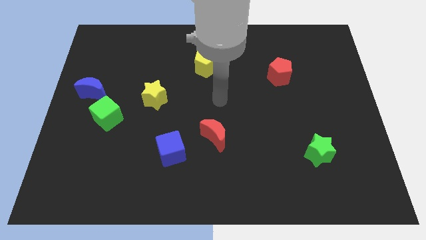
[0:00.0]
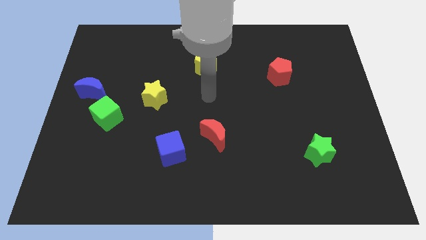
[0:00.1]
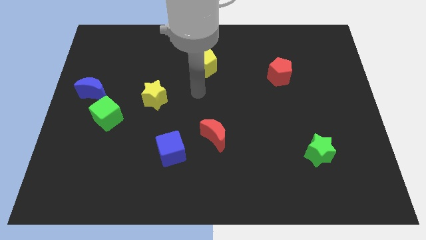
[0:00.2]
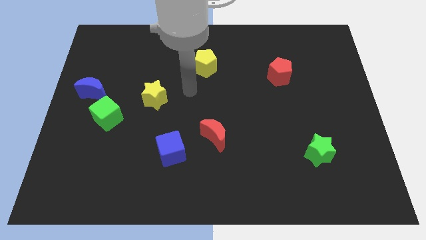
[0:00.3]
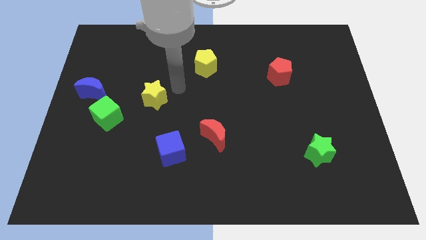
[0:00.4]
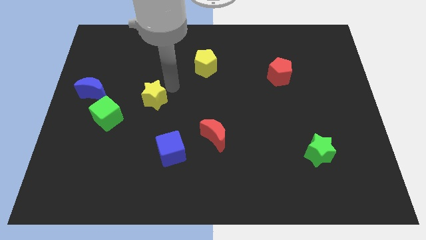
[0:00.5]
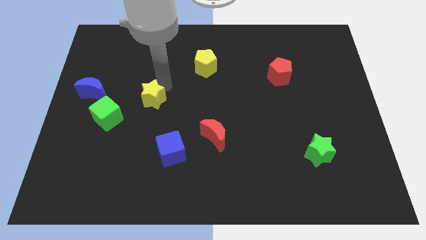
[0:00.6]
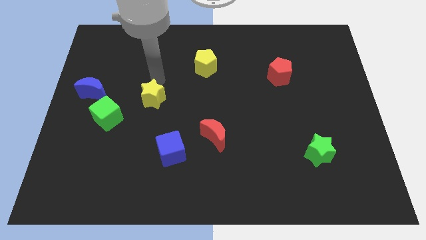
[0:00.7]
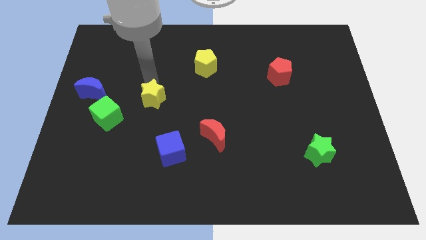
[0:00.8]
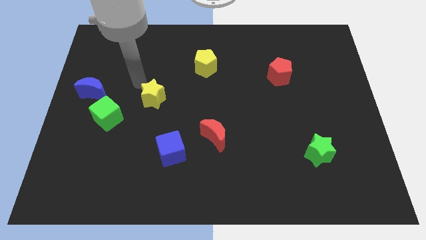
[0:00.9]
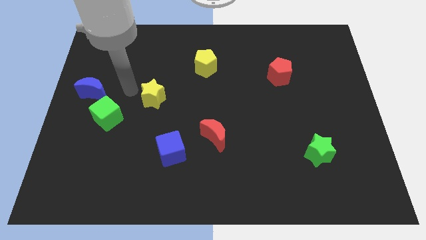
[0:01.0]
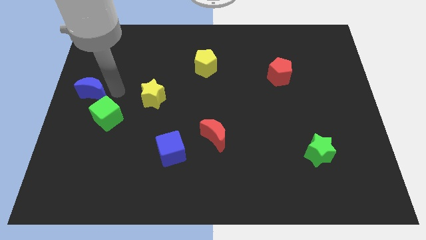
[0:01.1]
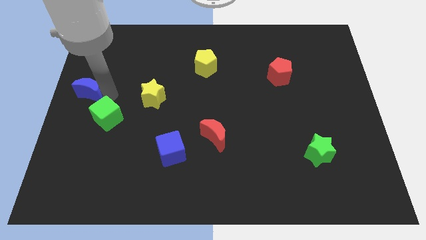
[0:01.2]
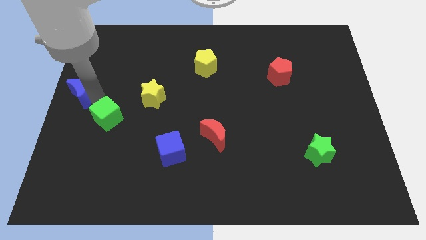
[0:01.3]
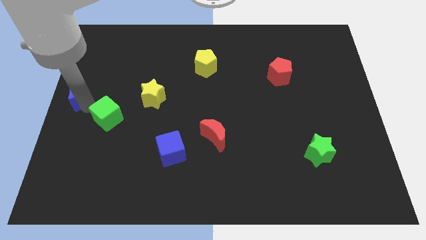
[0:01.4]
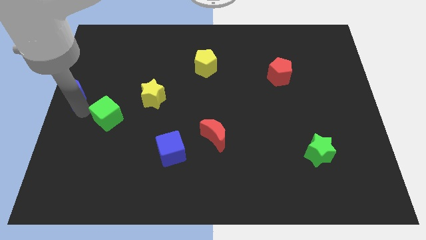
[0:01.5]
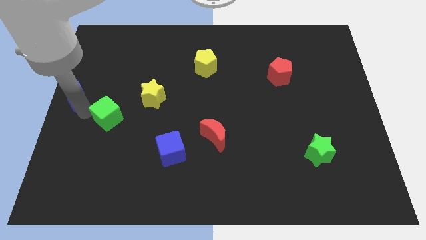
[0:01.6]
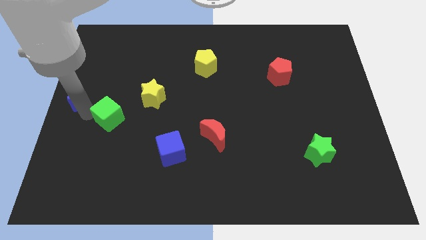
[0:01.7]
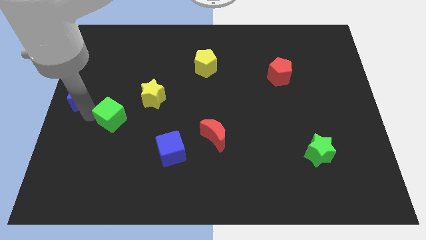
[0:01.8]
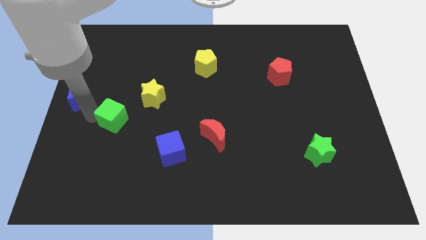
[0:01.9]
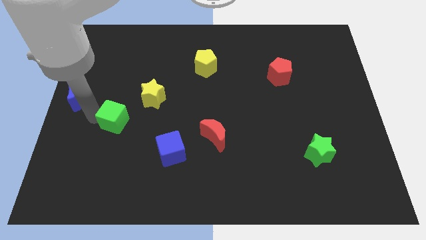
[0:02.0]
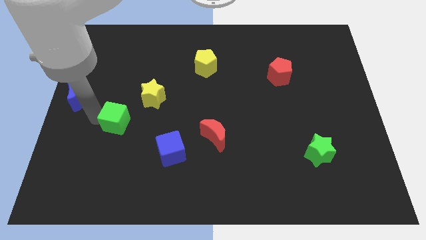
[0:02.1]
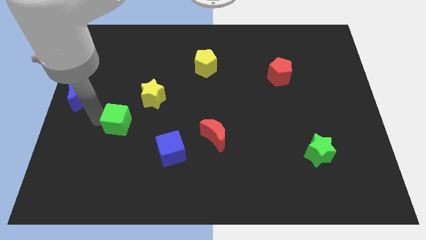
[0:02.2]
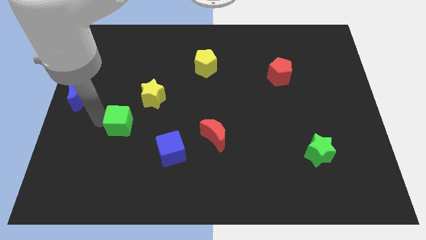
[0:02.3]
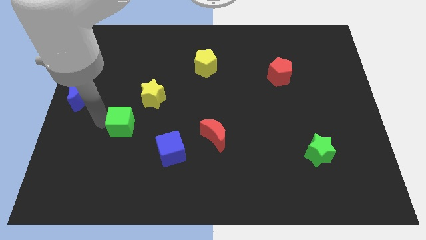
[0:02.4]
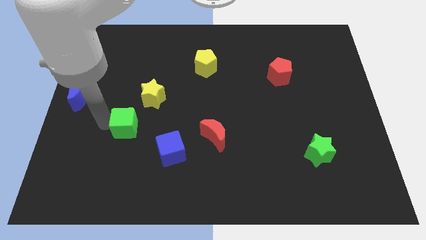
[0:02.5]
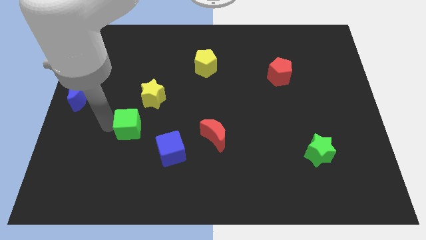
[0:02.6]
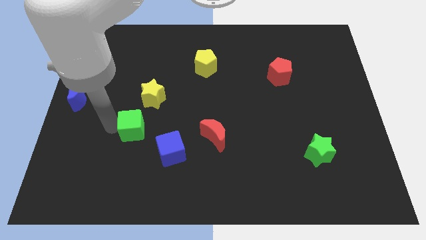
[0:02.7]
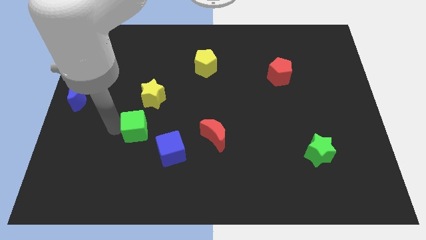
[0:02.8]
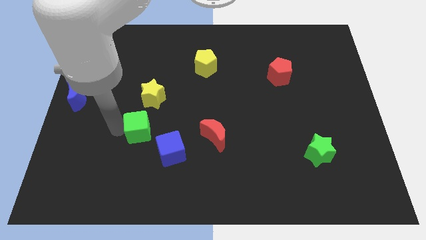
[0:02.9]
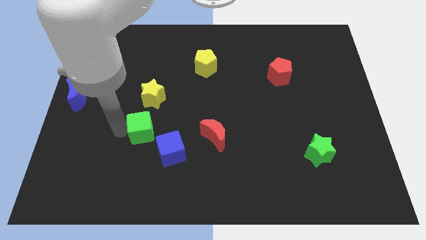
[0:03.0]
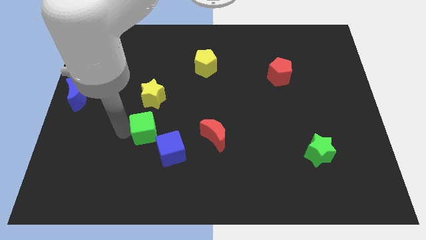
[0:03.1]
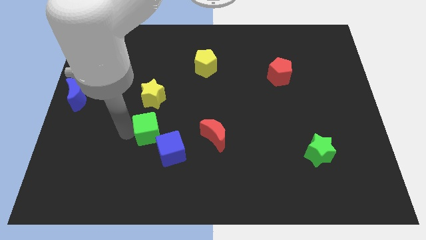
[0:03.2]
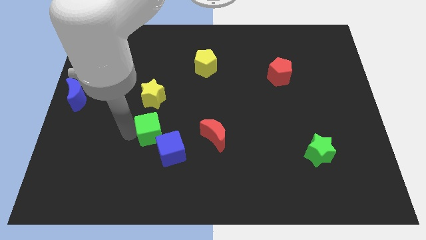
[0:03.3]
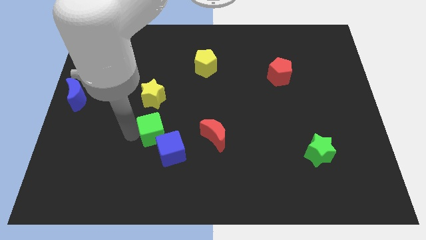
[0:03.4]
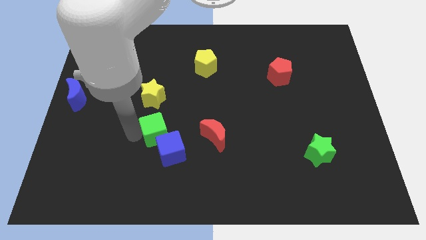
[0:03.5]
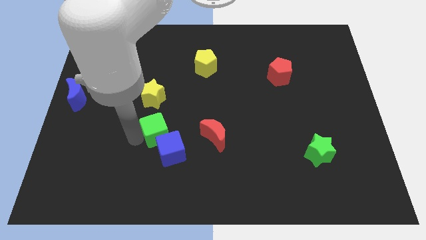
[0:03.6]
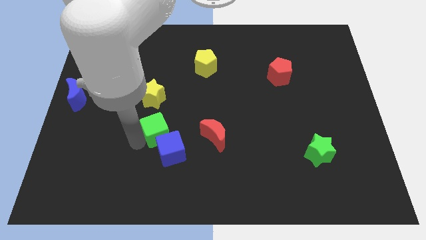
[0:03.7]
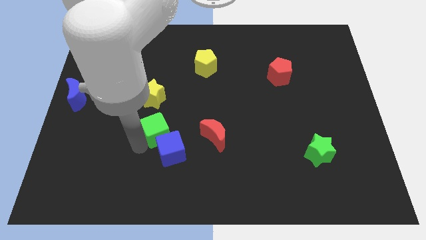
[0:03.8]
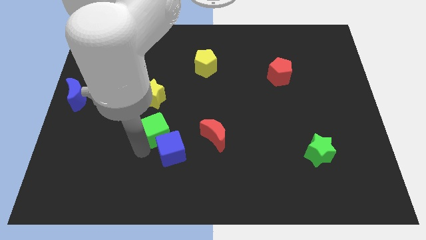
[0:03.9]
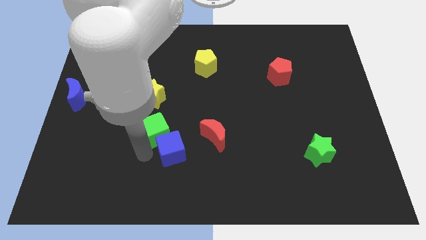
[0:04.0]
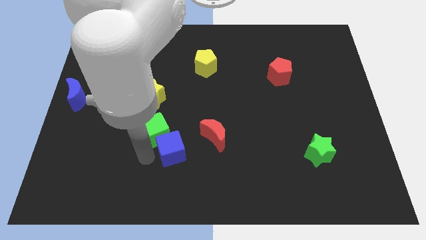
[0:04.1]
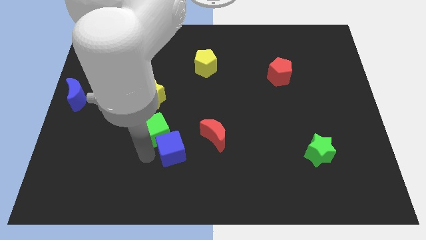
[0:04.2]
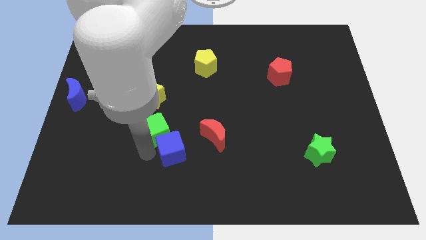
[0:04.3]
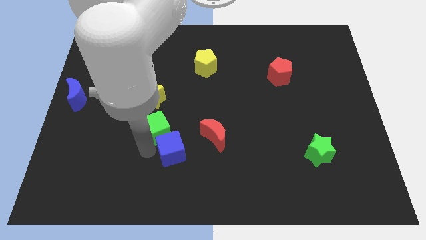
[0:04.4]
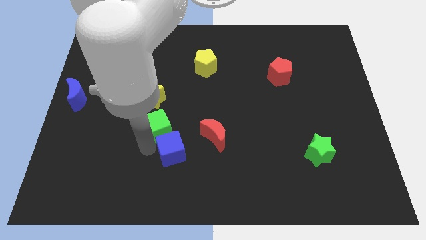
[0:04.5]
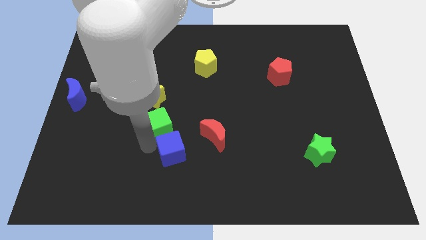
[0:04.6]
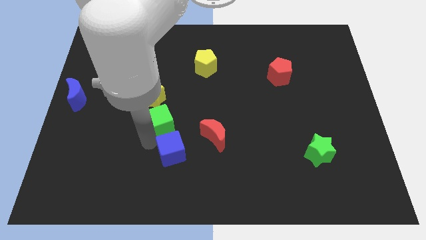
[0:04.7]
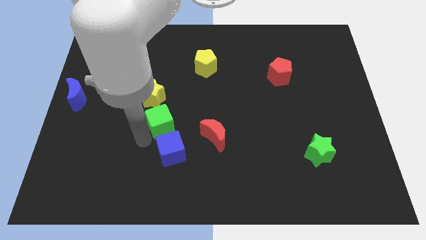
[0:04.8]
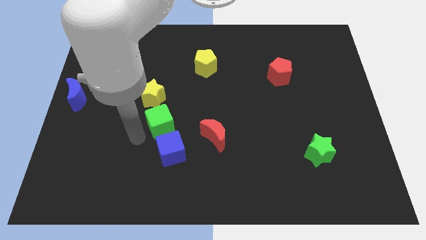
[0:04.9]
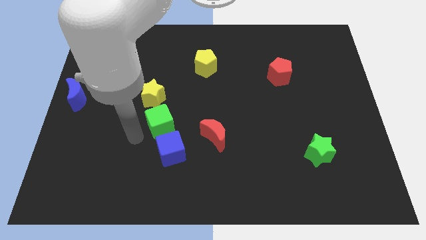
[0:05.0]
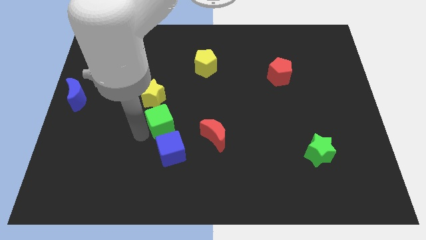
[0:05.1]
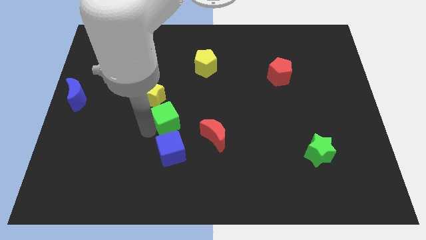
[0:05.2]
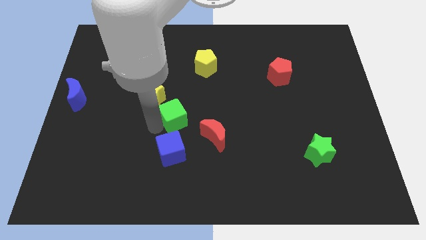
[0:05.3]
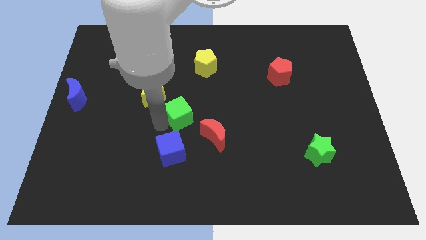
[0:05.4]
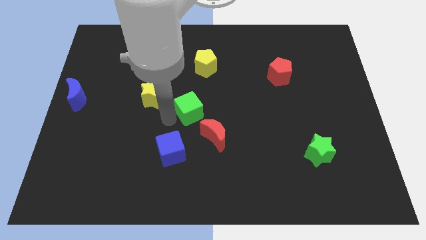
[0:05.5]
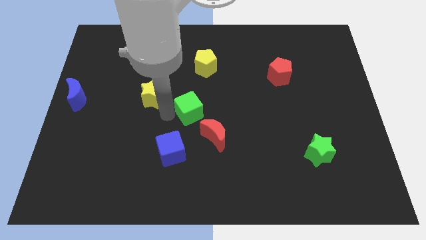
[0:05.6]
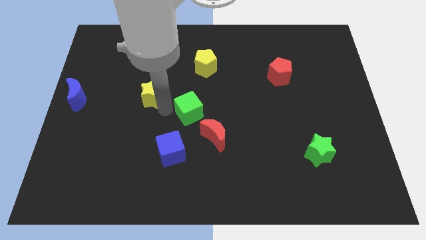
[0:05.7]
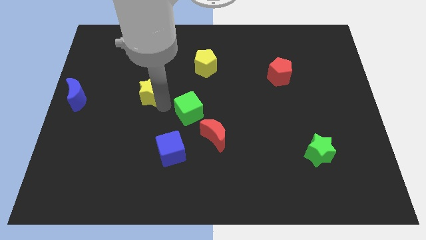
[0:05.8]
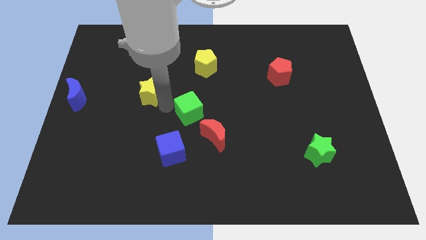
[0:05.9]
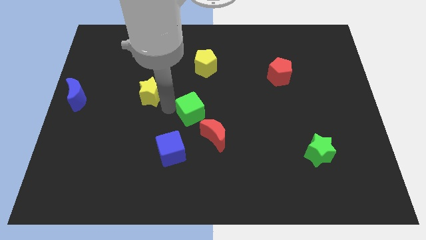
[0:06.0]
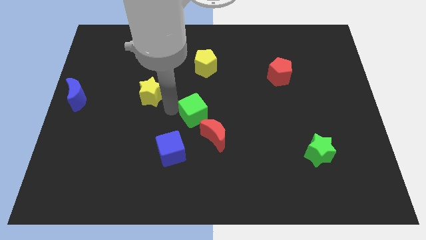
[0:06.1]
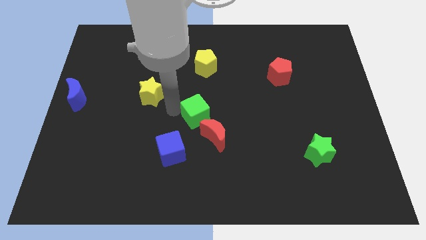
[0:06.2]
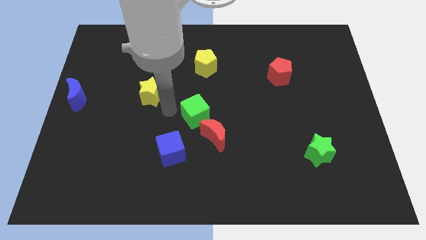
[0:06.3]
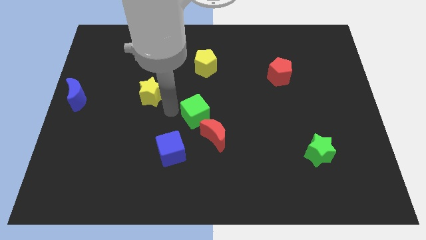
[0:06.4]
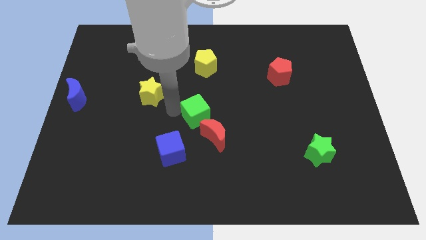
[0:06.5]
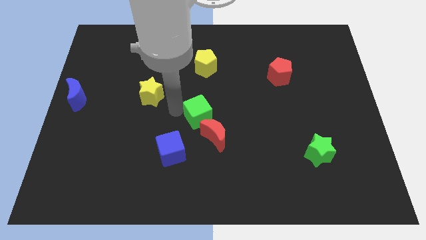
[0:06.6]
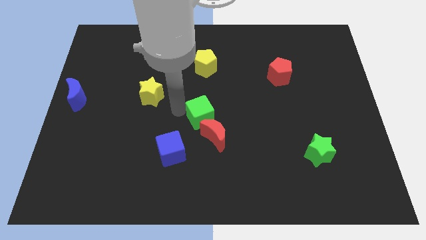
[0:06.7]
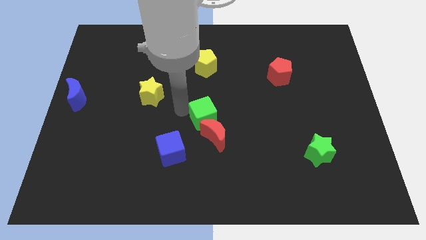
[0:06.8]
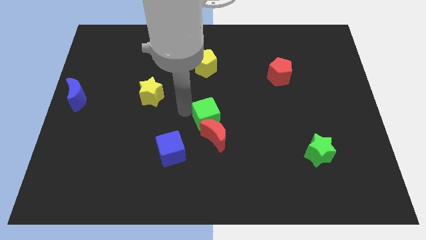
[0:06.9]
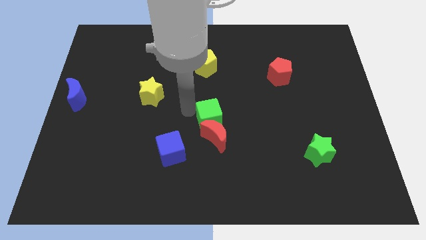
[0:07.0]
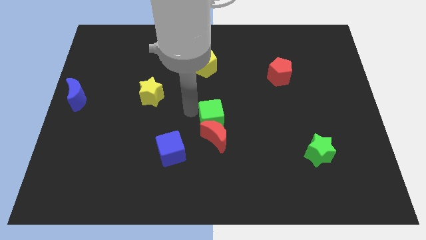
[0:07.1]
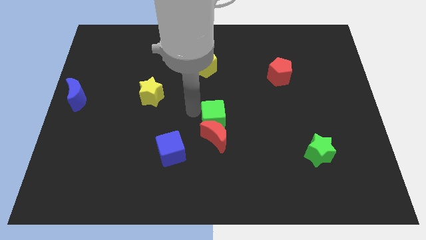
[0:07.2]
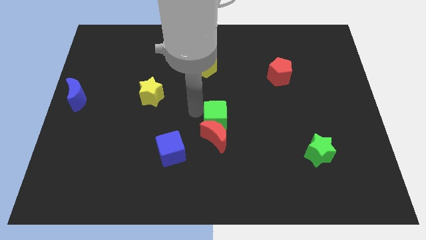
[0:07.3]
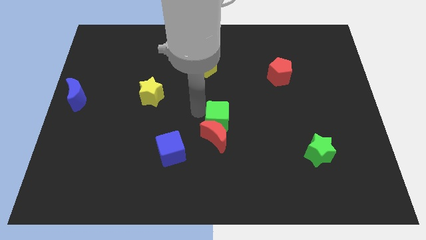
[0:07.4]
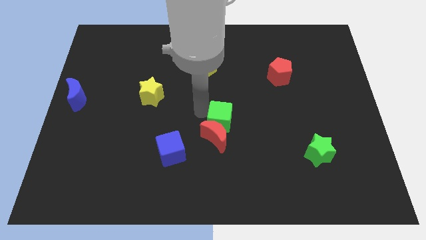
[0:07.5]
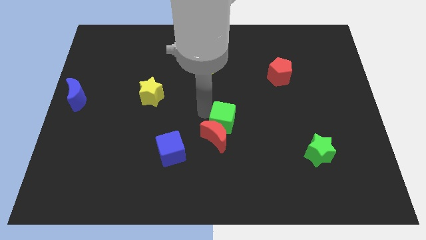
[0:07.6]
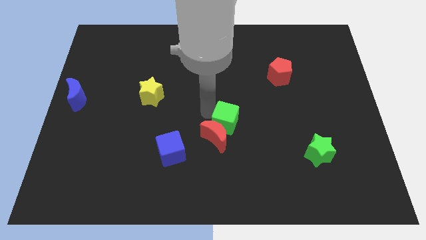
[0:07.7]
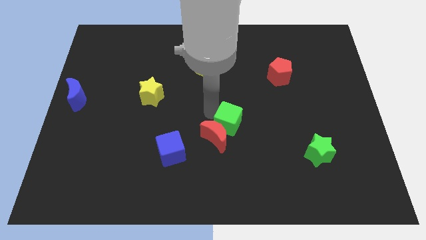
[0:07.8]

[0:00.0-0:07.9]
push the green cube right of the red moon
